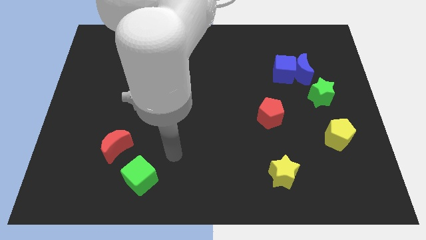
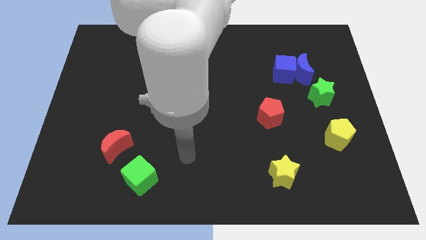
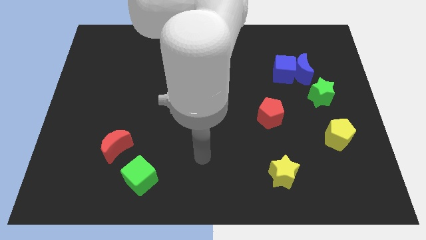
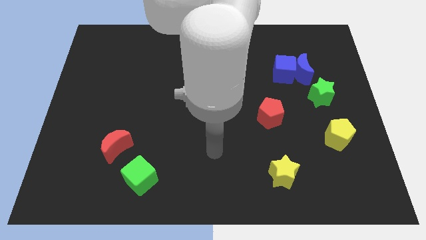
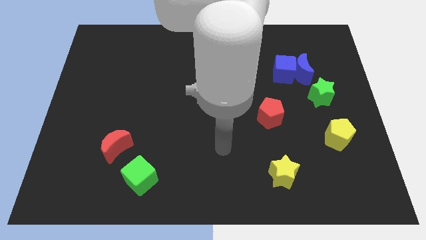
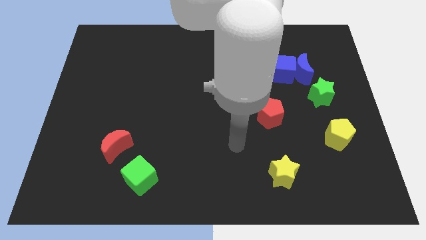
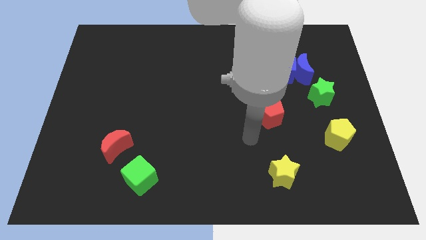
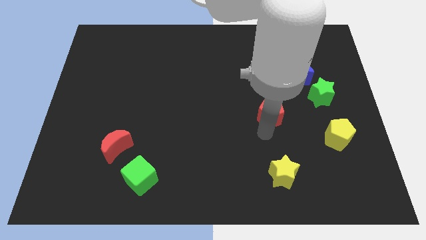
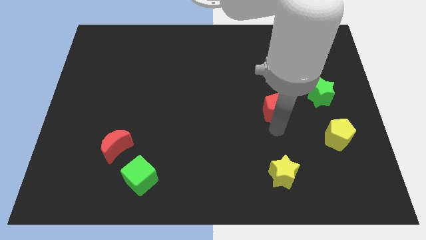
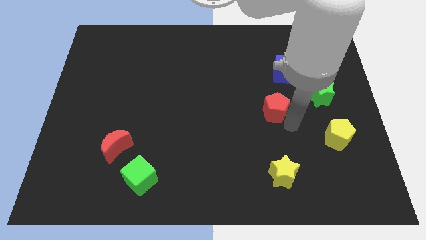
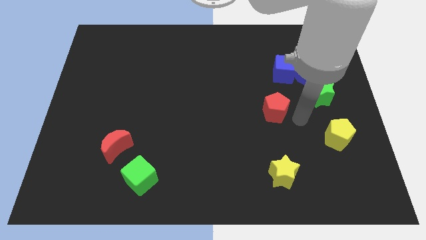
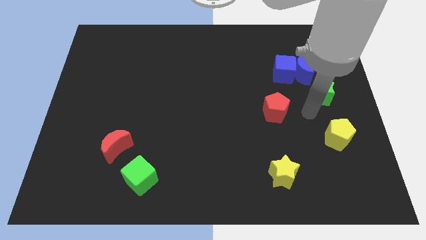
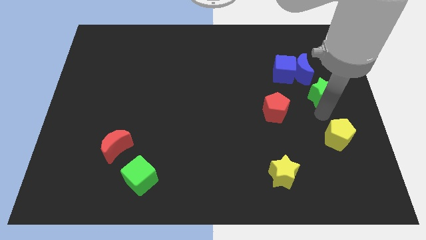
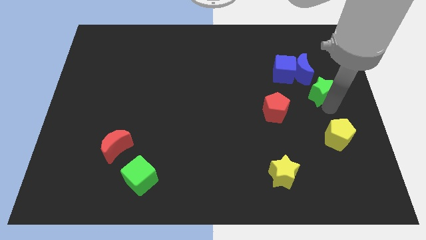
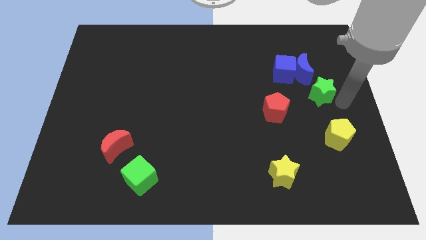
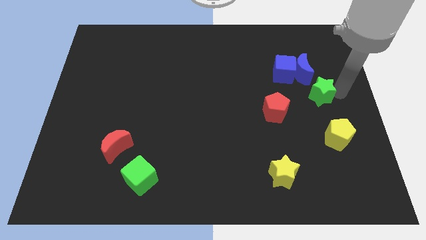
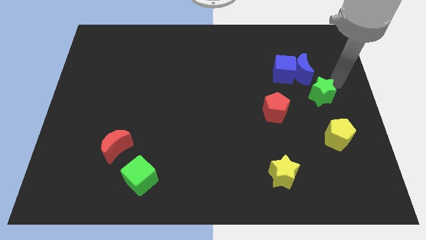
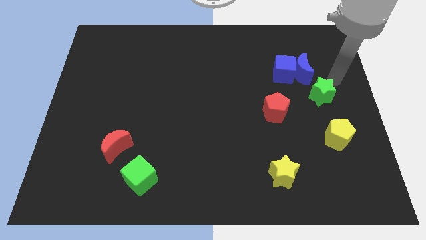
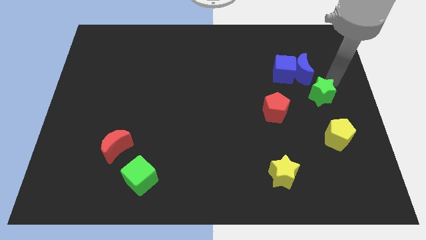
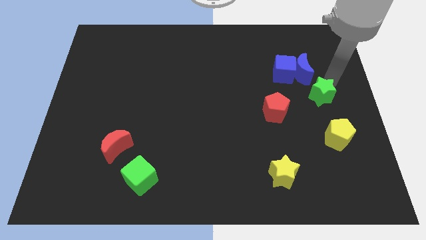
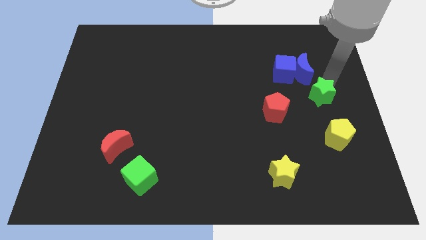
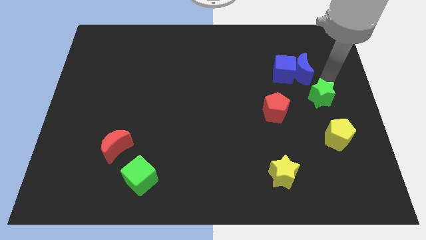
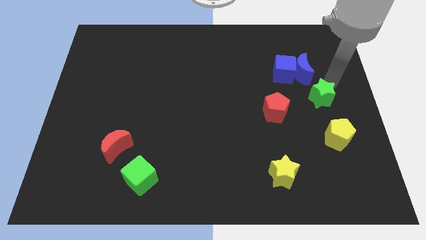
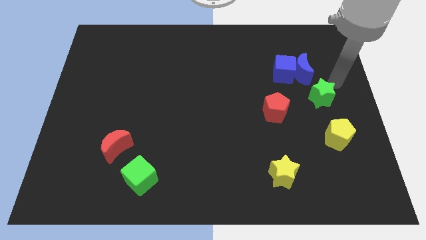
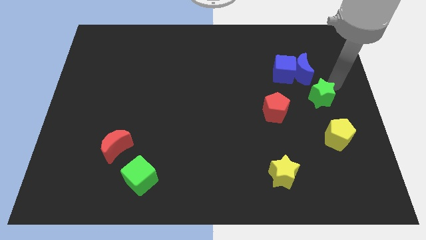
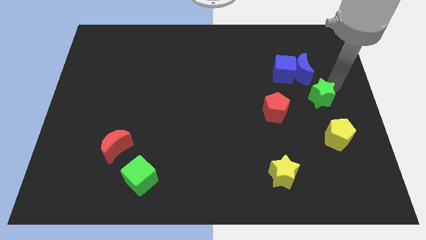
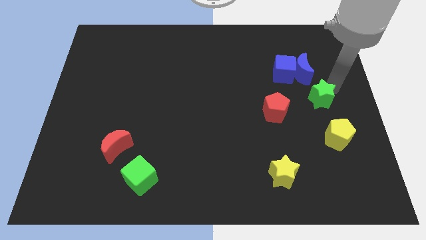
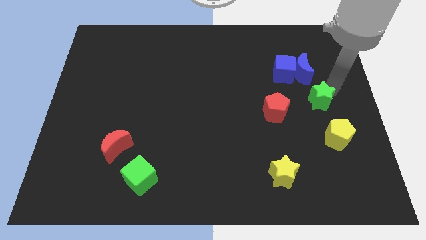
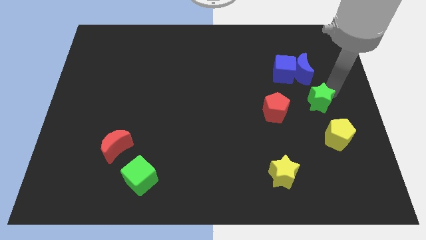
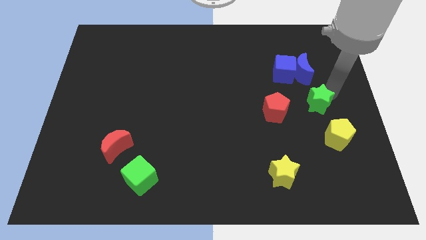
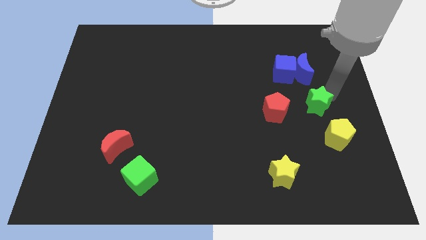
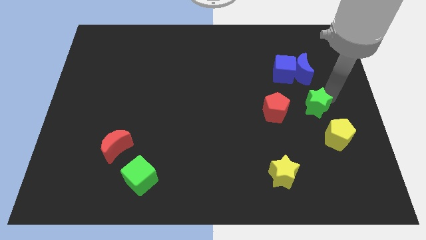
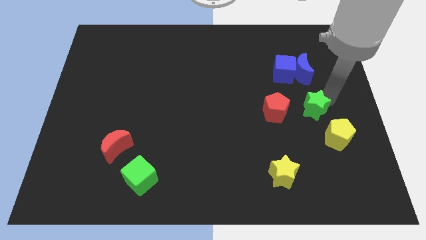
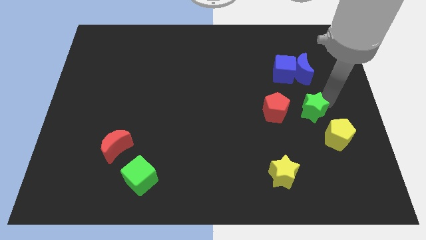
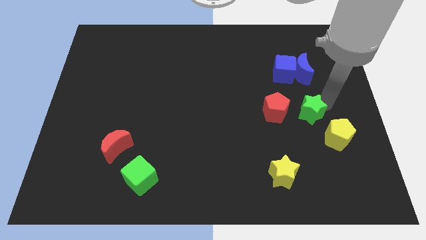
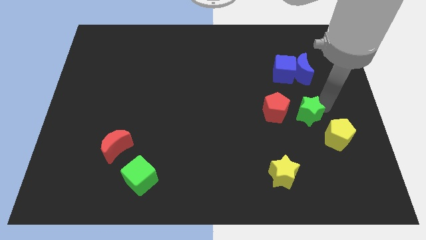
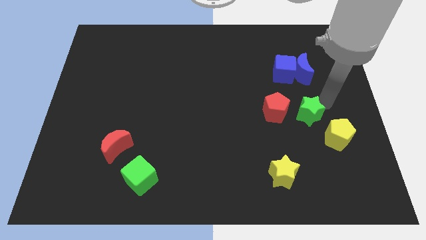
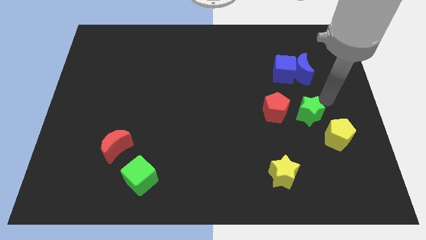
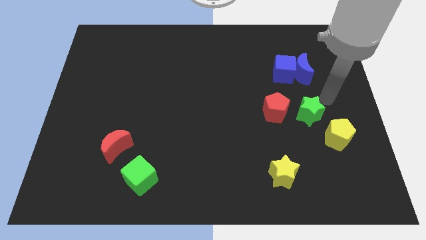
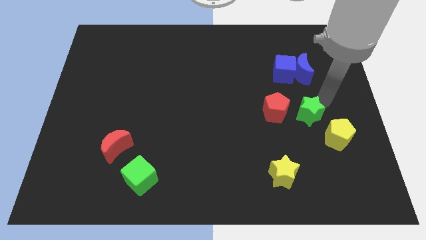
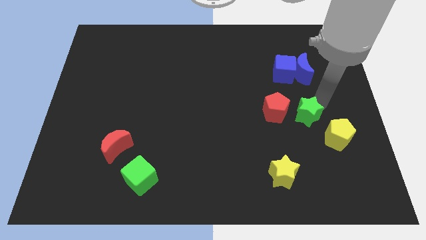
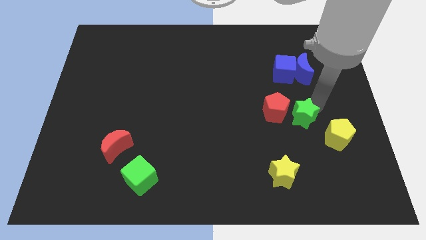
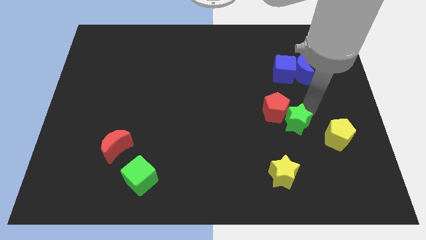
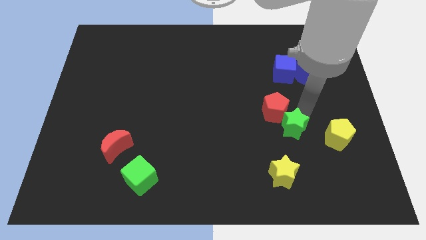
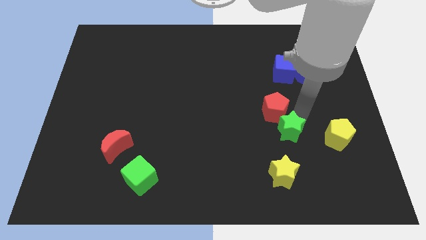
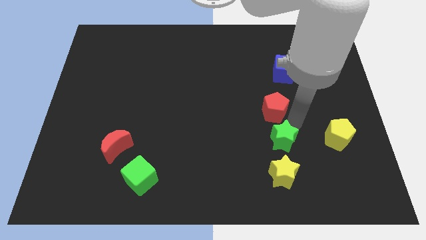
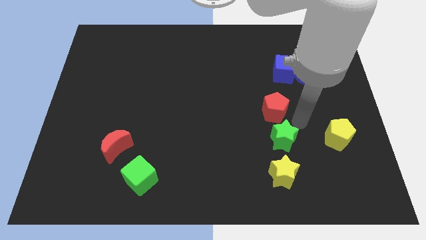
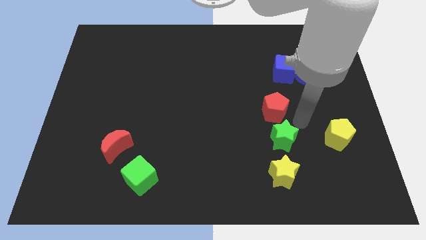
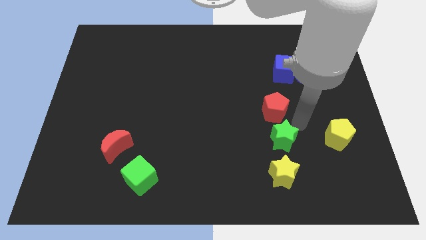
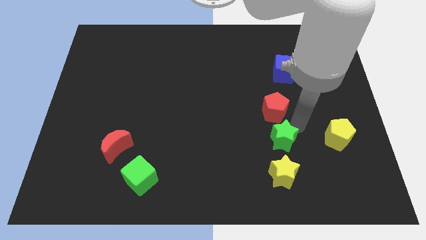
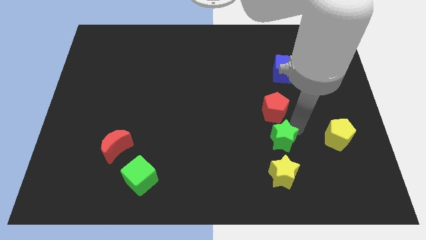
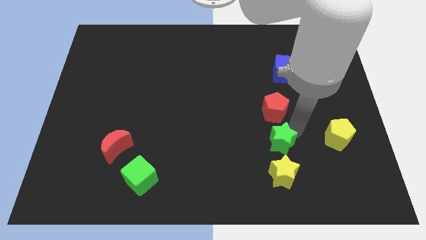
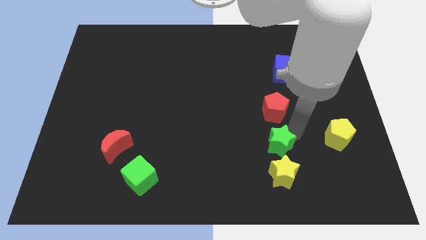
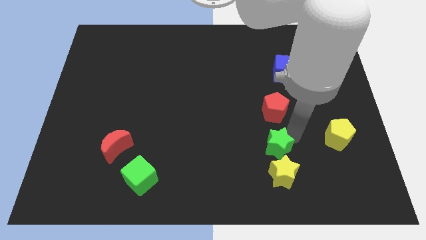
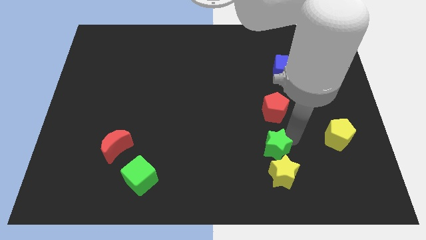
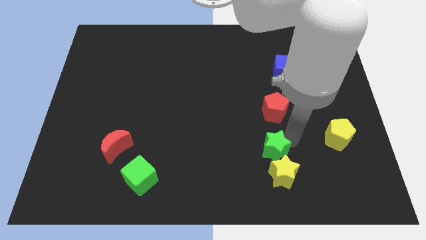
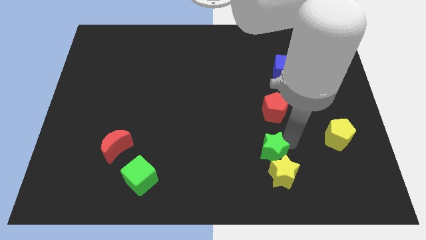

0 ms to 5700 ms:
move the green star down and then to the left

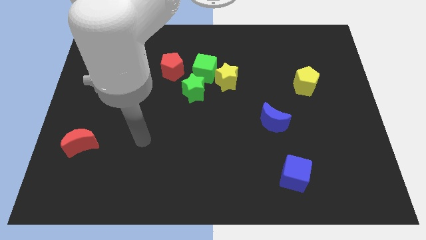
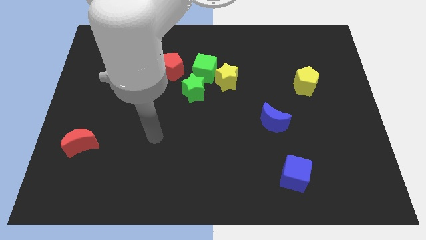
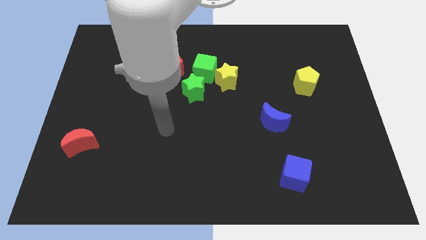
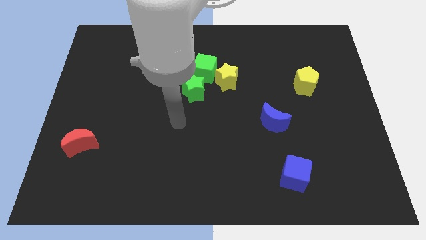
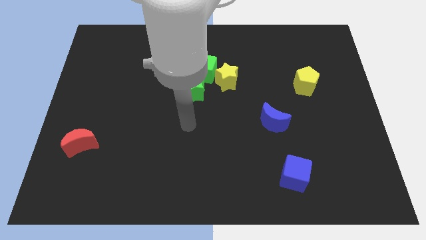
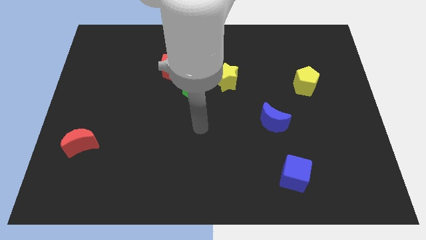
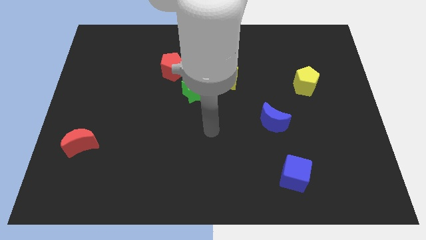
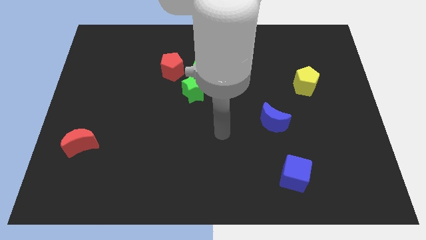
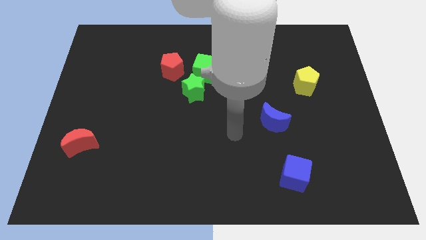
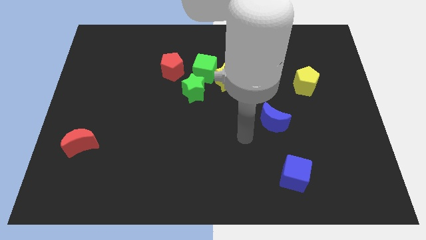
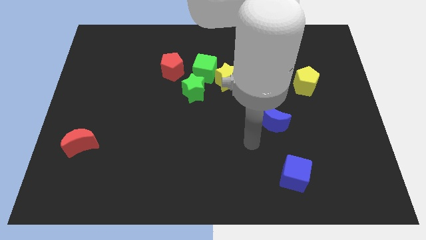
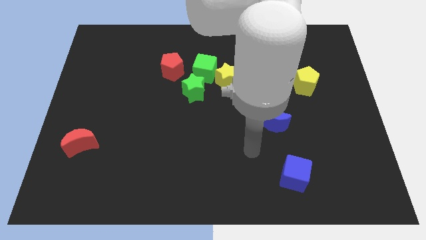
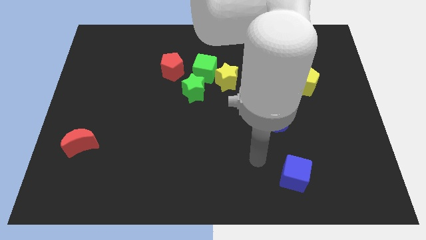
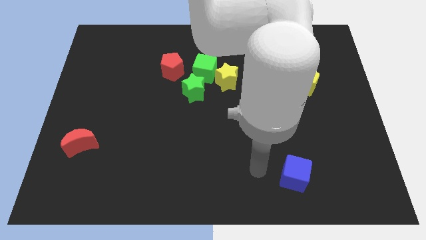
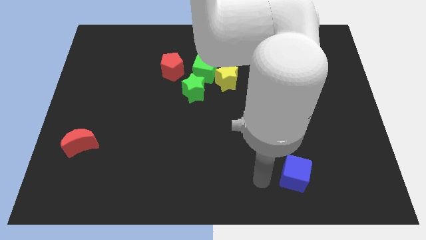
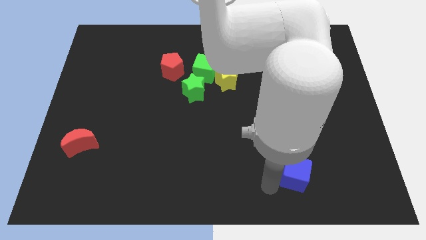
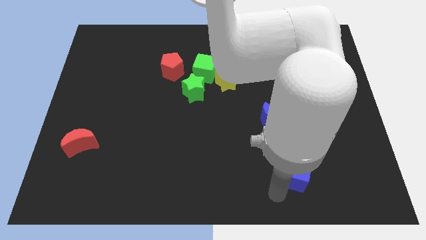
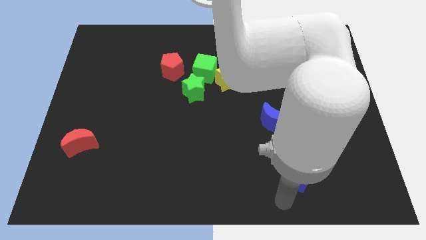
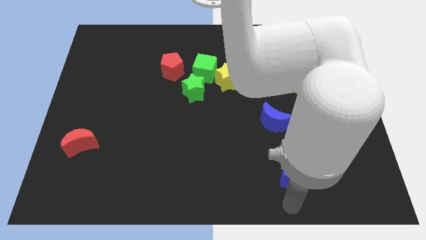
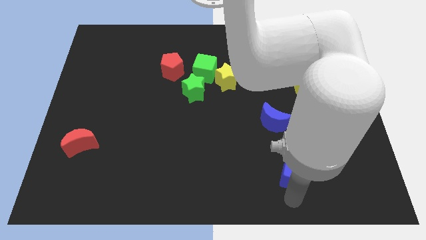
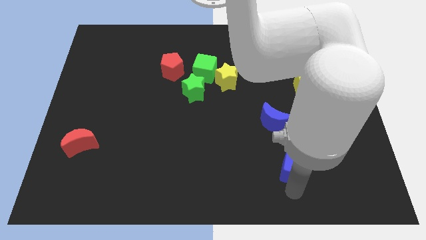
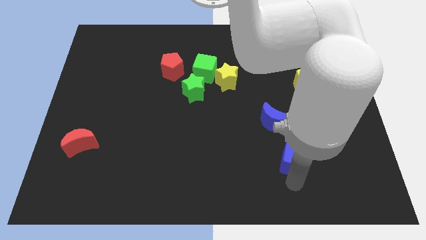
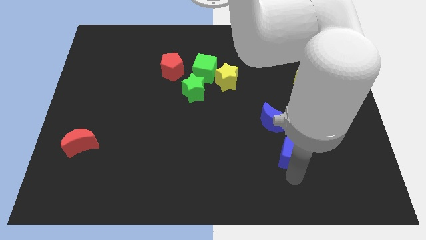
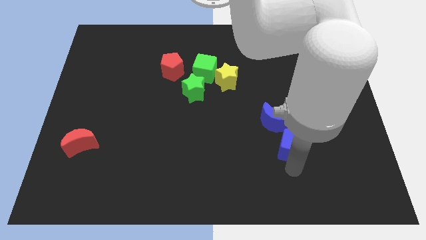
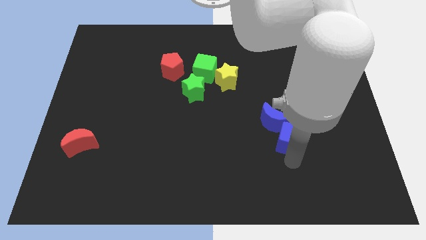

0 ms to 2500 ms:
slightly slide the blue cube upwards
